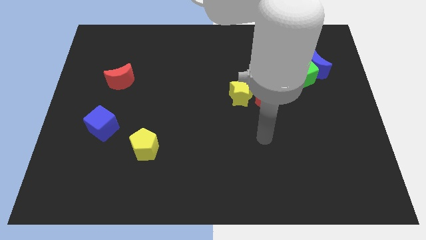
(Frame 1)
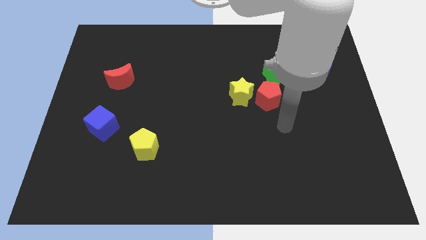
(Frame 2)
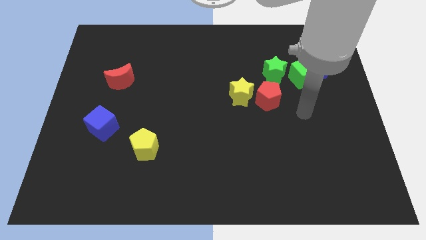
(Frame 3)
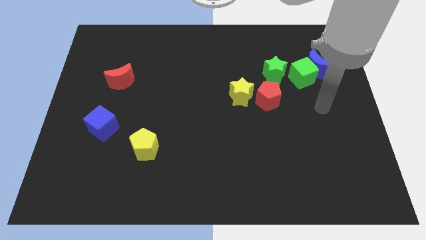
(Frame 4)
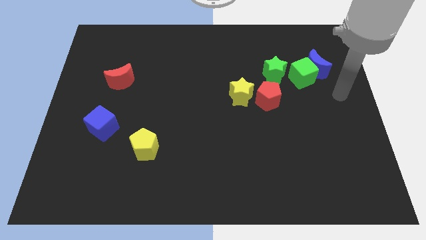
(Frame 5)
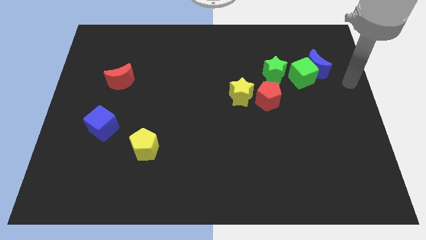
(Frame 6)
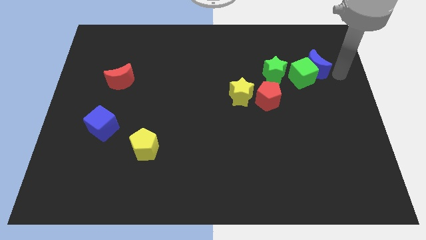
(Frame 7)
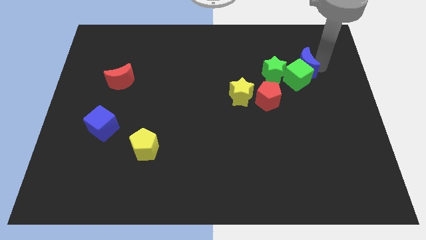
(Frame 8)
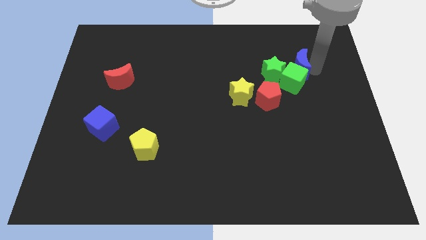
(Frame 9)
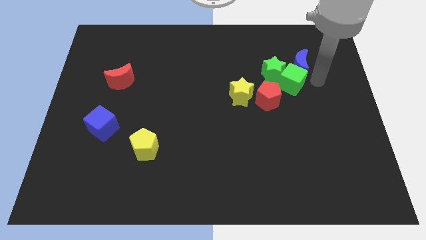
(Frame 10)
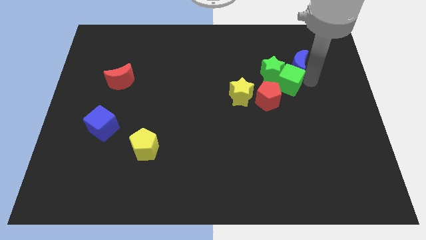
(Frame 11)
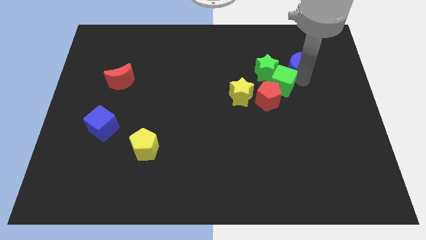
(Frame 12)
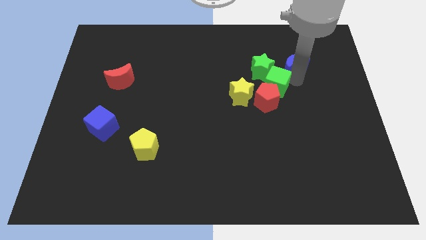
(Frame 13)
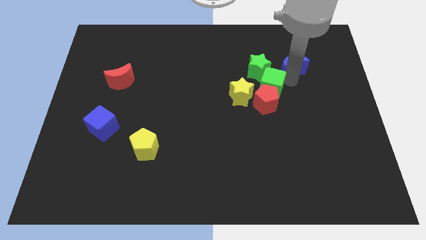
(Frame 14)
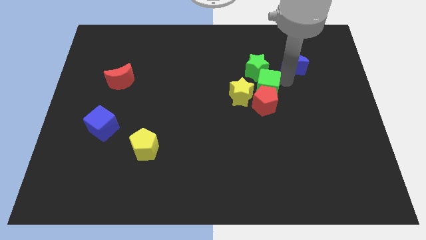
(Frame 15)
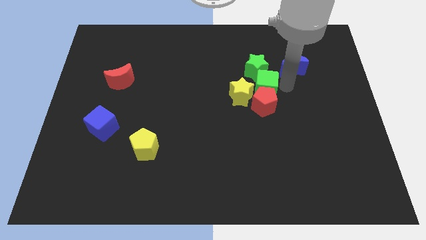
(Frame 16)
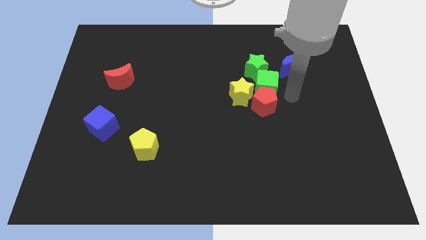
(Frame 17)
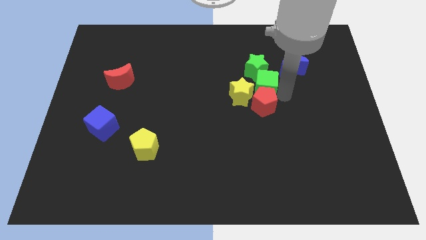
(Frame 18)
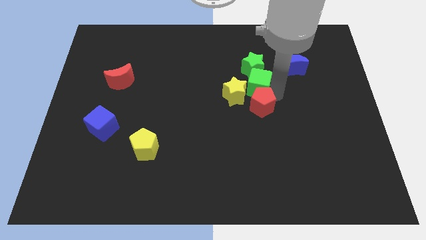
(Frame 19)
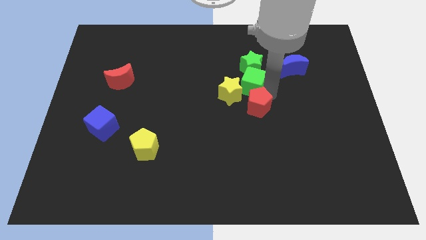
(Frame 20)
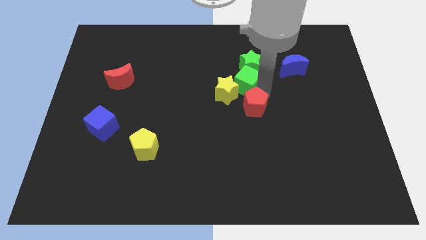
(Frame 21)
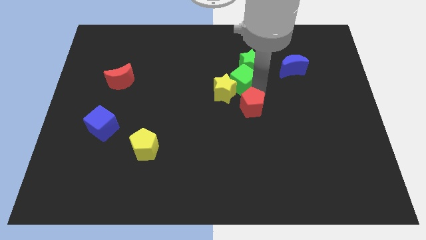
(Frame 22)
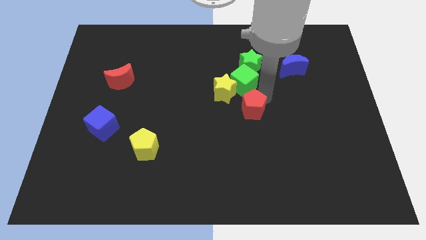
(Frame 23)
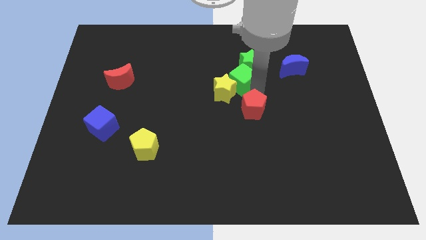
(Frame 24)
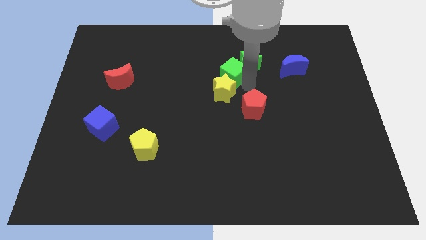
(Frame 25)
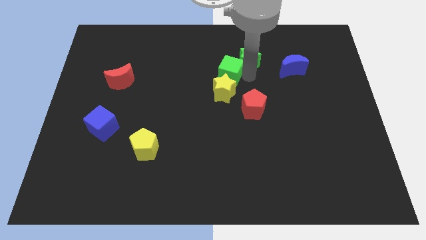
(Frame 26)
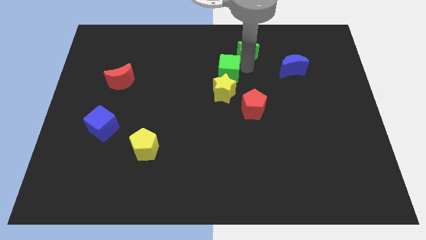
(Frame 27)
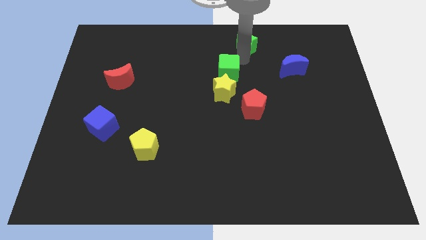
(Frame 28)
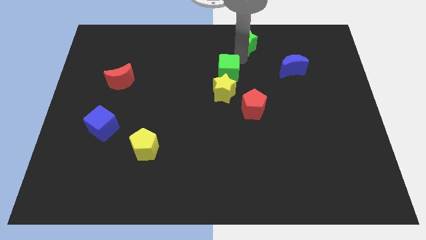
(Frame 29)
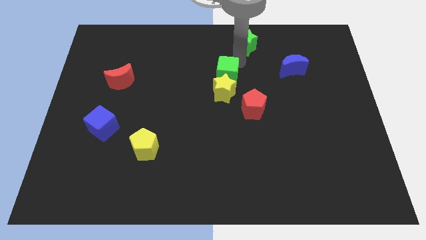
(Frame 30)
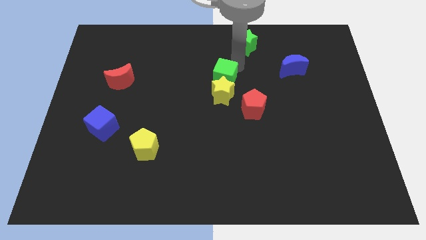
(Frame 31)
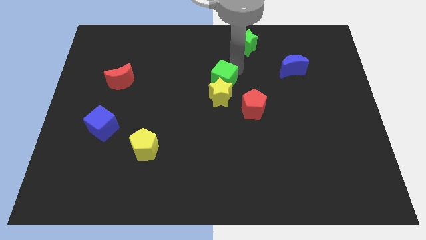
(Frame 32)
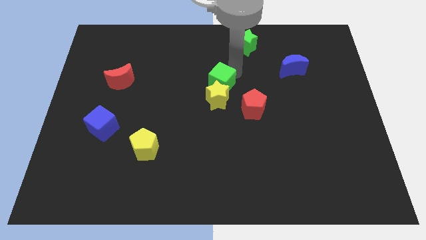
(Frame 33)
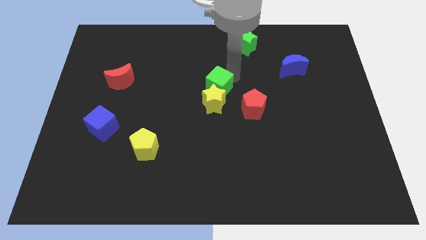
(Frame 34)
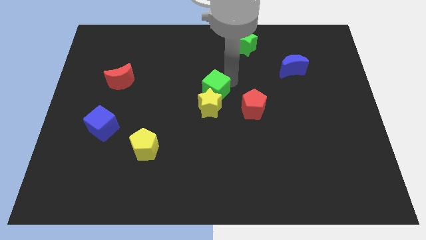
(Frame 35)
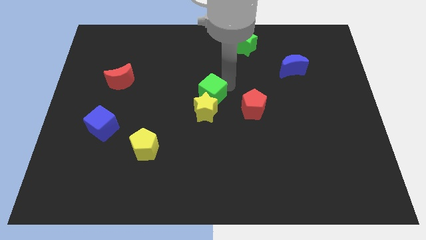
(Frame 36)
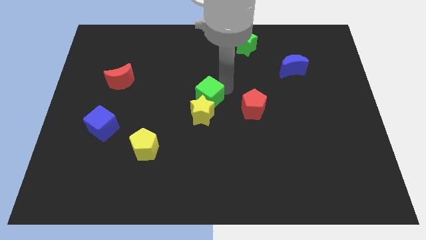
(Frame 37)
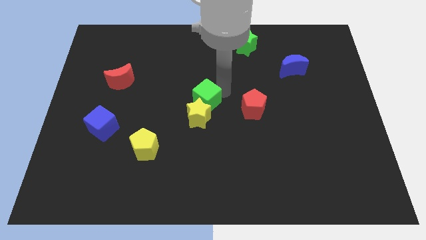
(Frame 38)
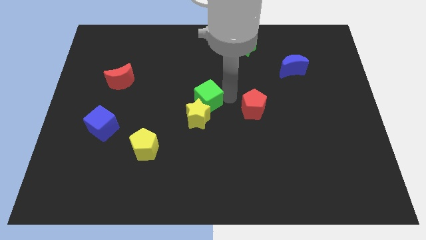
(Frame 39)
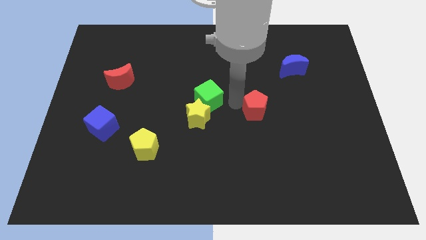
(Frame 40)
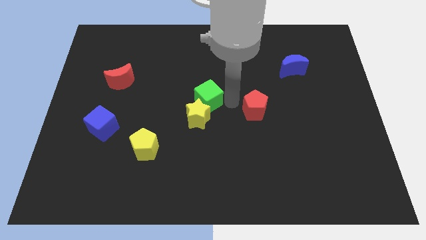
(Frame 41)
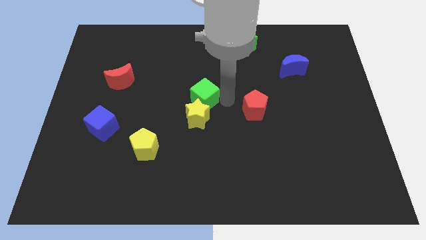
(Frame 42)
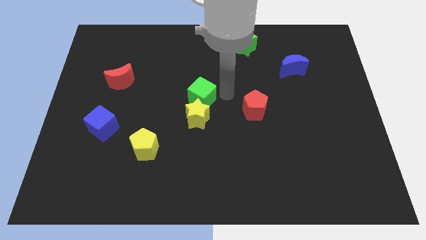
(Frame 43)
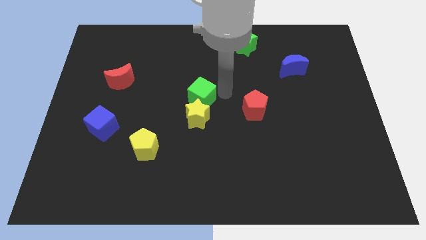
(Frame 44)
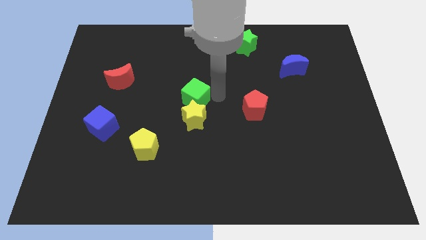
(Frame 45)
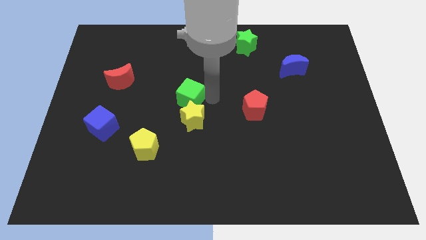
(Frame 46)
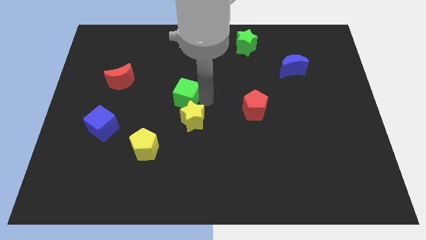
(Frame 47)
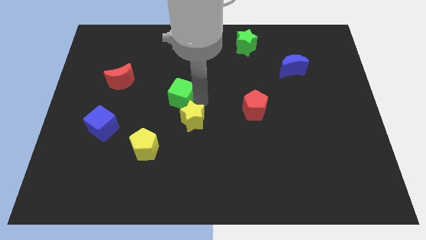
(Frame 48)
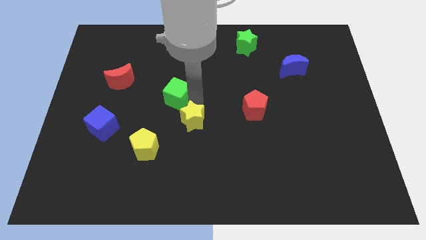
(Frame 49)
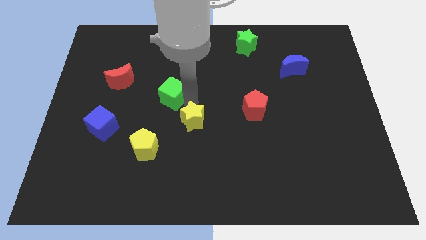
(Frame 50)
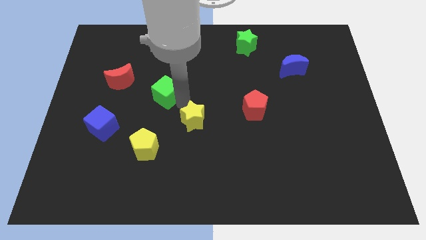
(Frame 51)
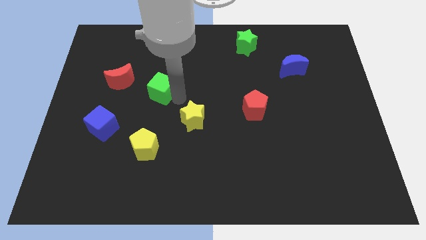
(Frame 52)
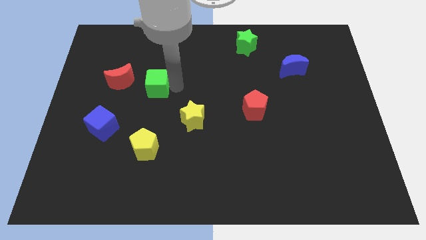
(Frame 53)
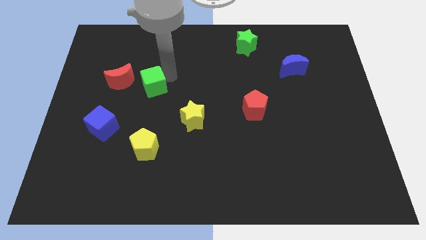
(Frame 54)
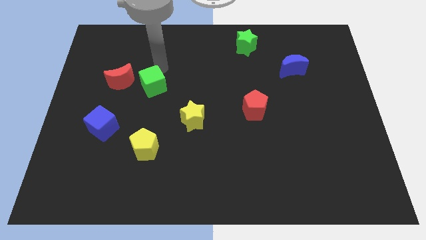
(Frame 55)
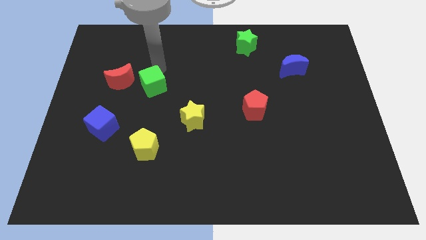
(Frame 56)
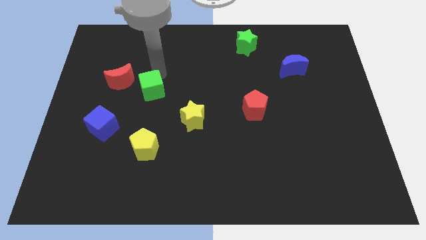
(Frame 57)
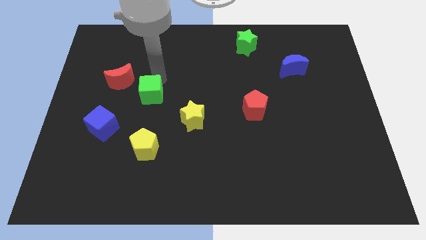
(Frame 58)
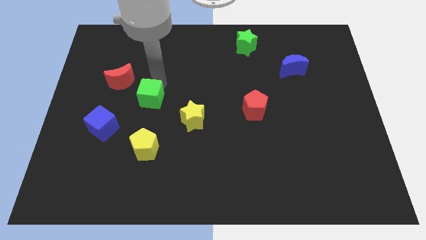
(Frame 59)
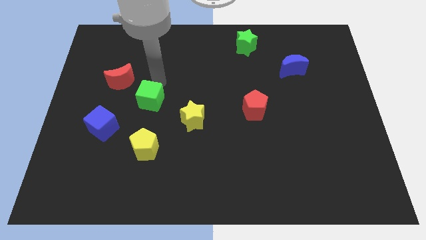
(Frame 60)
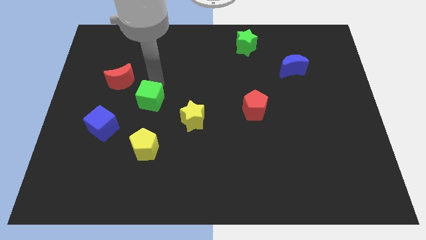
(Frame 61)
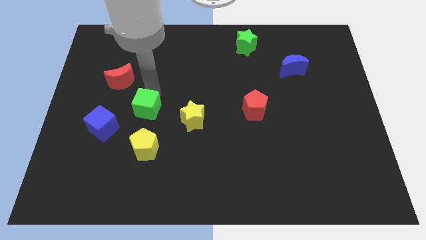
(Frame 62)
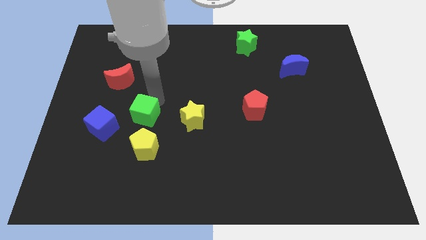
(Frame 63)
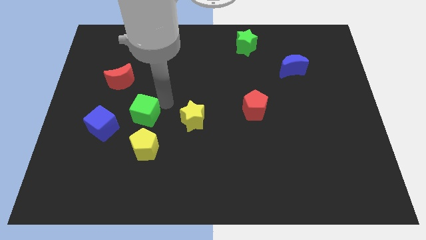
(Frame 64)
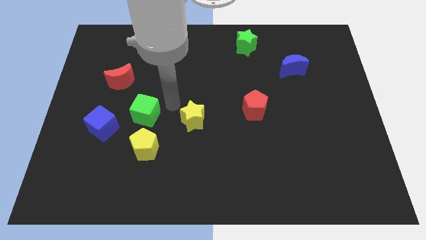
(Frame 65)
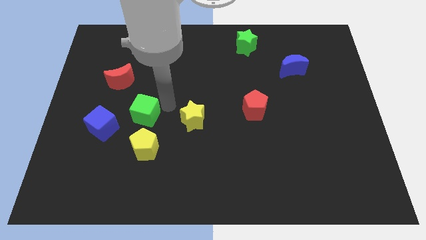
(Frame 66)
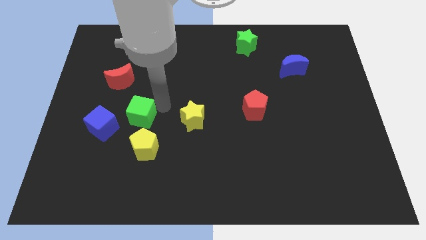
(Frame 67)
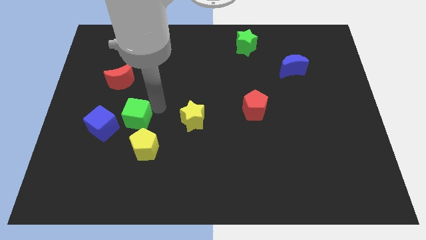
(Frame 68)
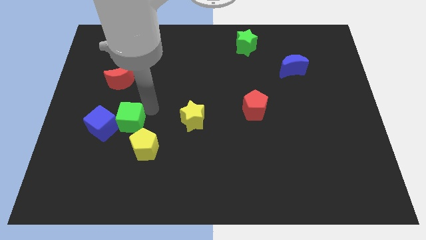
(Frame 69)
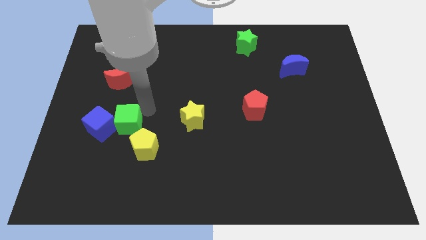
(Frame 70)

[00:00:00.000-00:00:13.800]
put the green cube towards the blue cube
